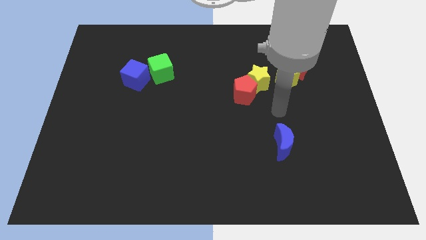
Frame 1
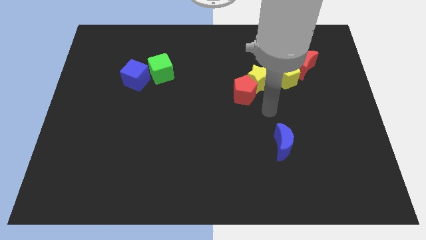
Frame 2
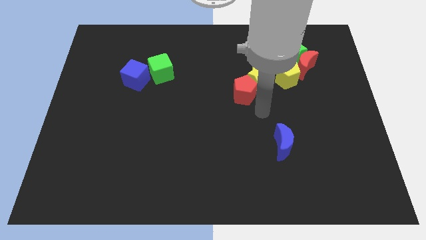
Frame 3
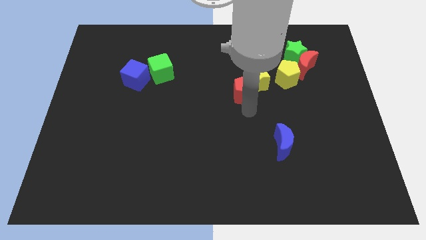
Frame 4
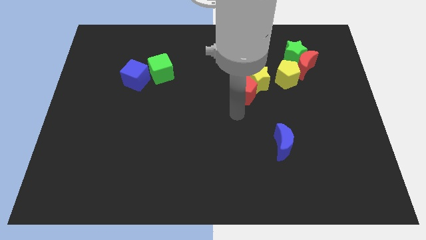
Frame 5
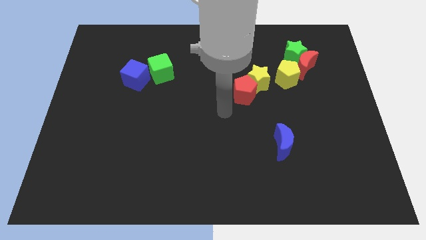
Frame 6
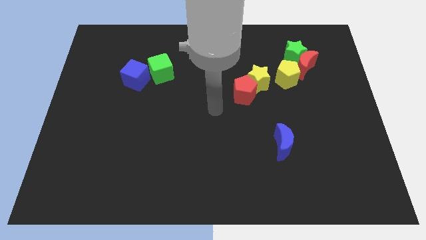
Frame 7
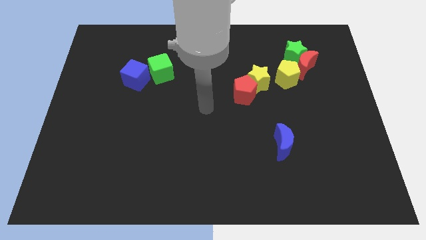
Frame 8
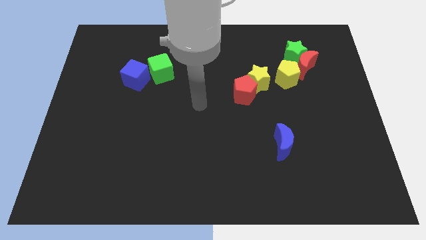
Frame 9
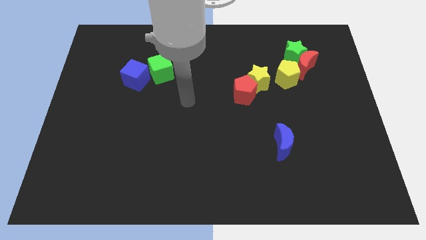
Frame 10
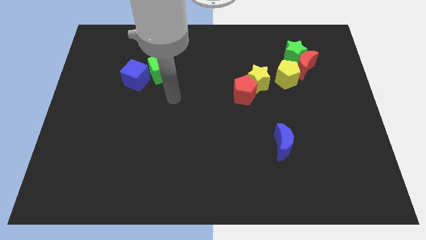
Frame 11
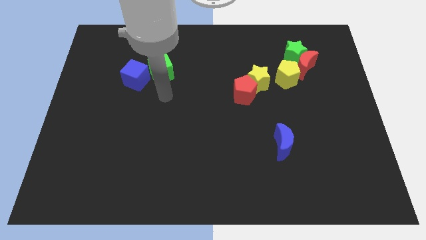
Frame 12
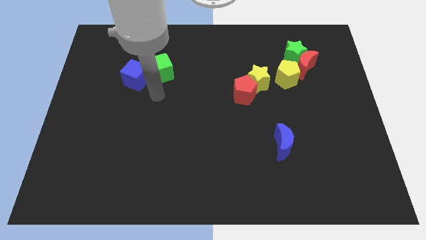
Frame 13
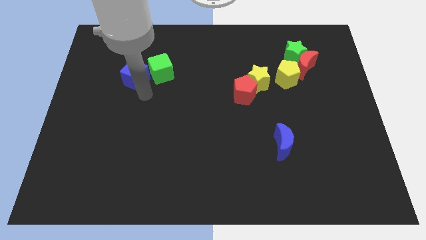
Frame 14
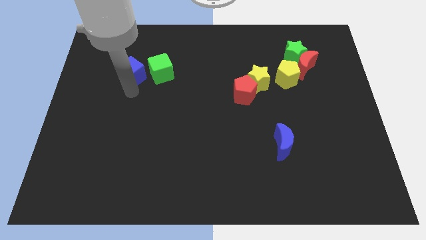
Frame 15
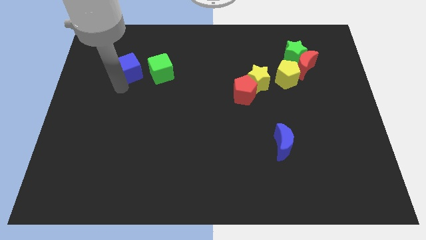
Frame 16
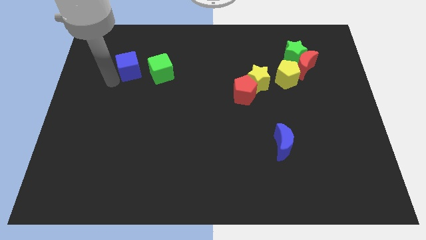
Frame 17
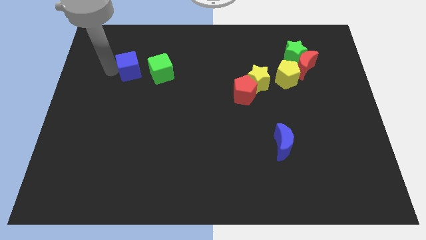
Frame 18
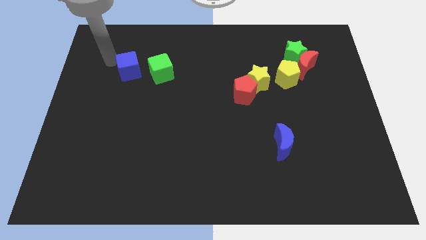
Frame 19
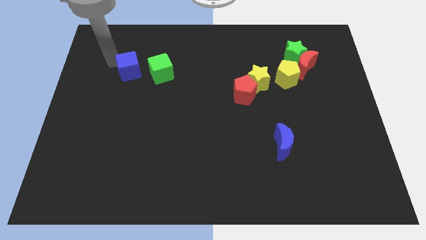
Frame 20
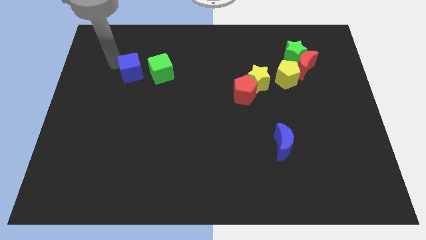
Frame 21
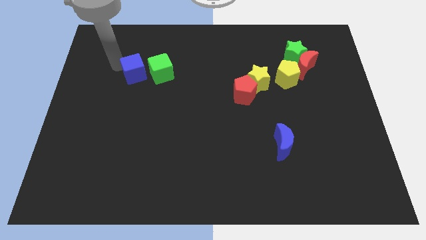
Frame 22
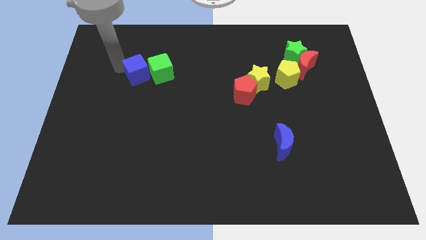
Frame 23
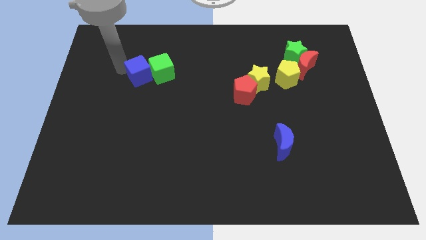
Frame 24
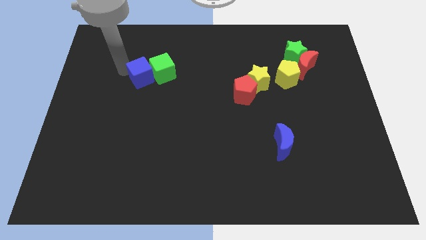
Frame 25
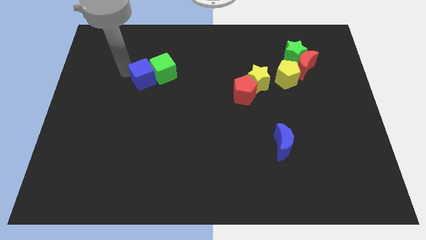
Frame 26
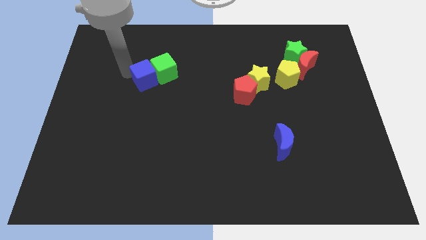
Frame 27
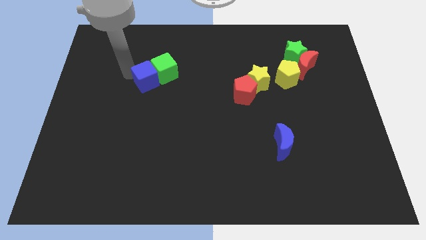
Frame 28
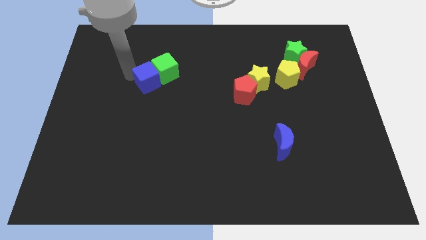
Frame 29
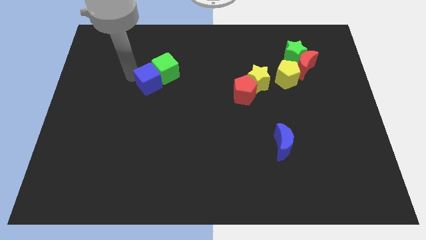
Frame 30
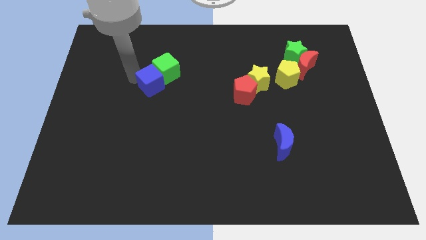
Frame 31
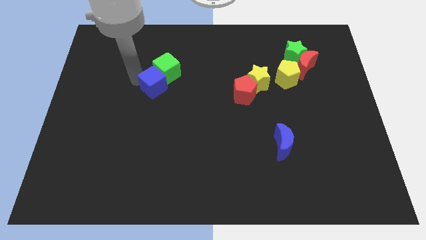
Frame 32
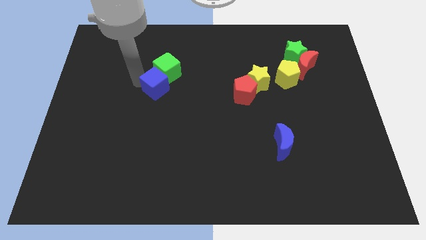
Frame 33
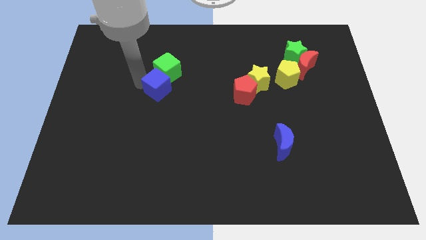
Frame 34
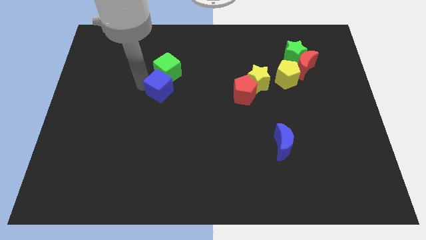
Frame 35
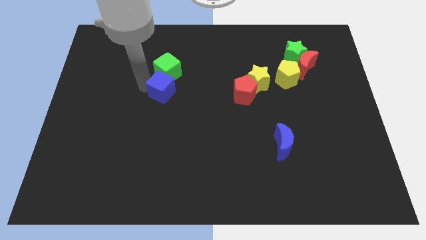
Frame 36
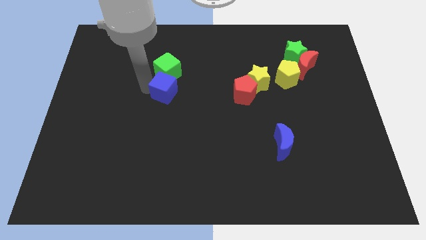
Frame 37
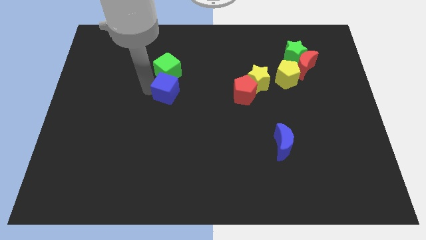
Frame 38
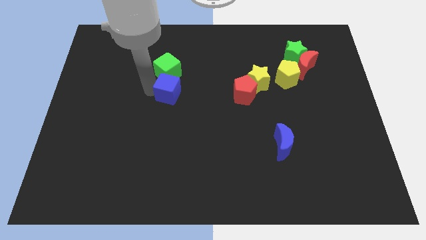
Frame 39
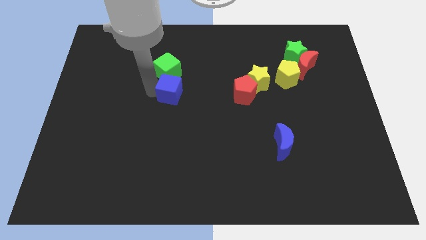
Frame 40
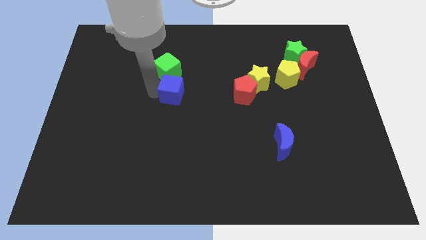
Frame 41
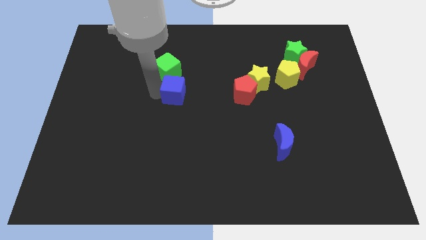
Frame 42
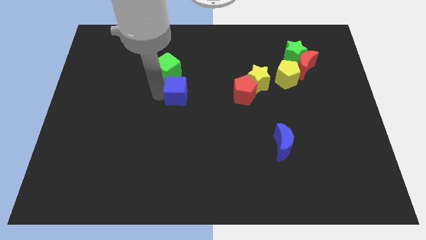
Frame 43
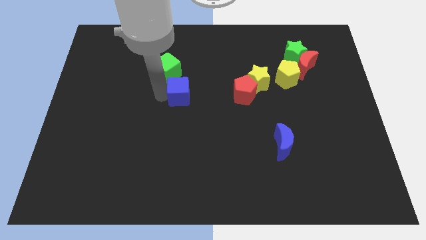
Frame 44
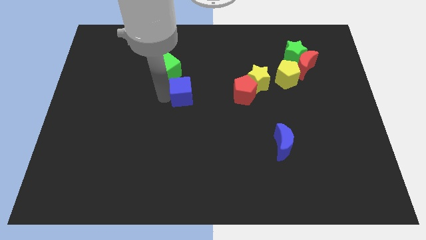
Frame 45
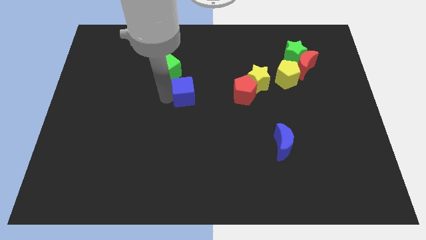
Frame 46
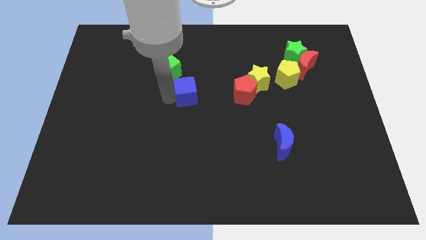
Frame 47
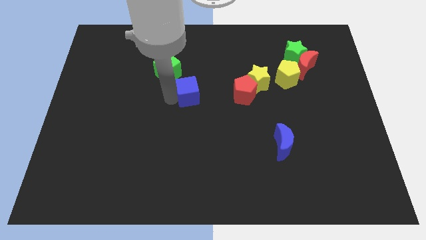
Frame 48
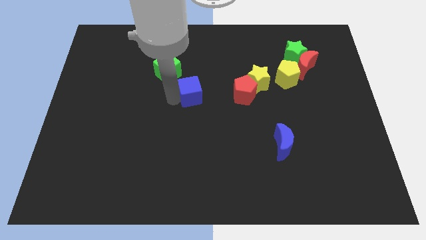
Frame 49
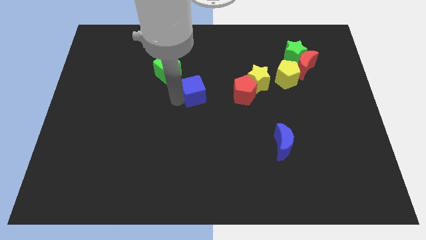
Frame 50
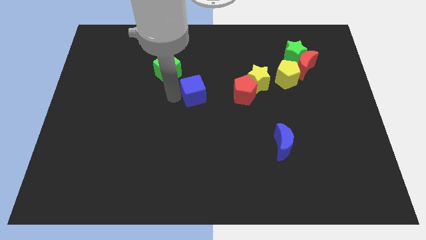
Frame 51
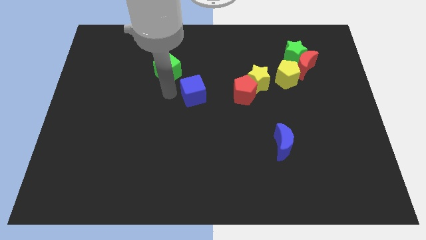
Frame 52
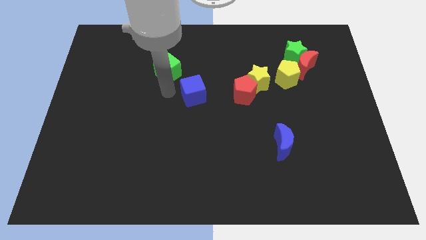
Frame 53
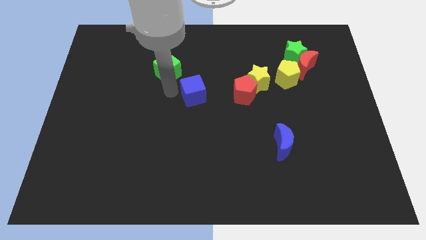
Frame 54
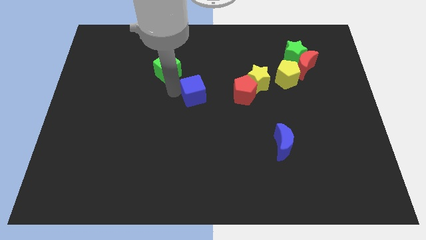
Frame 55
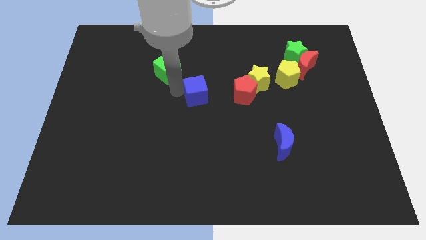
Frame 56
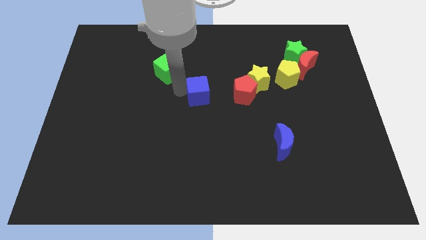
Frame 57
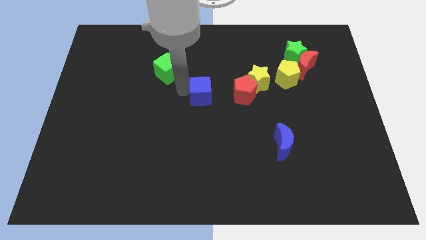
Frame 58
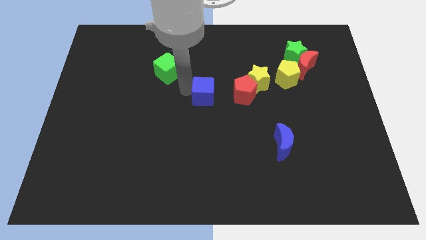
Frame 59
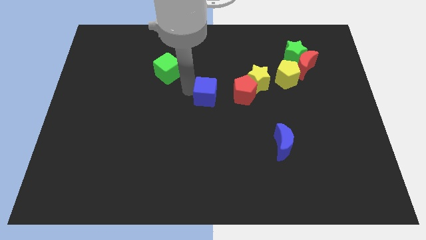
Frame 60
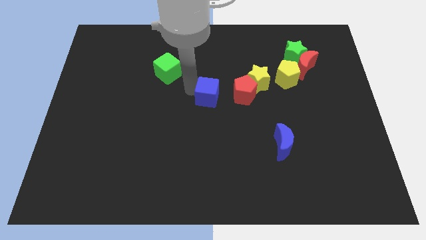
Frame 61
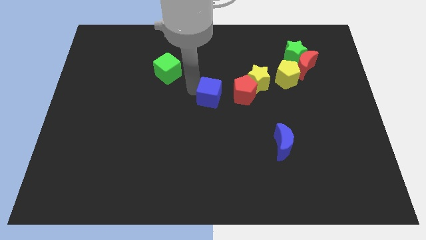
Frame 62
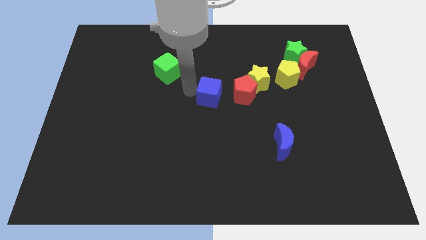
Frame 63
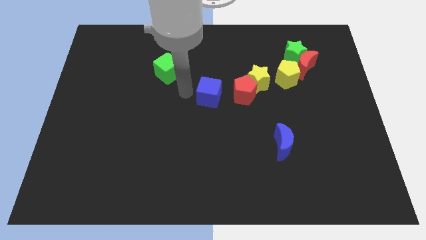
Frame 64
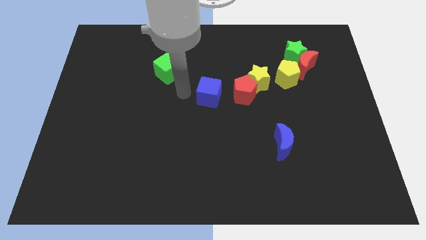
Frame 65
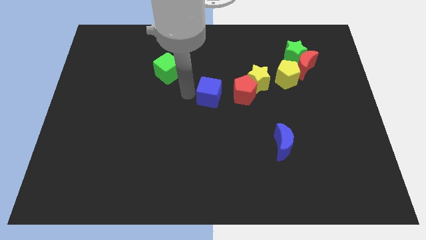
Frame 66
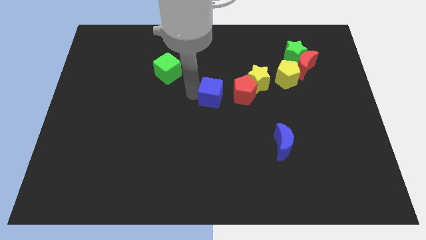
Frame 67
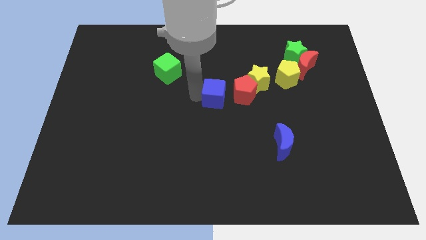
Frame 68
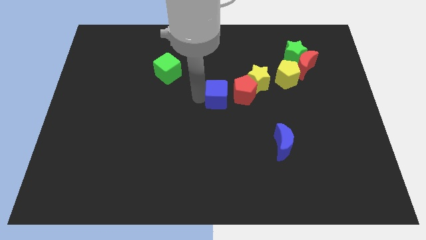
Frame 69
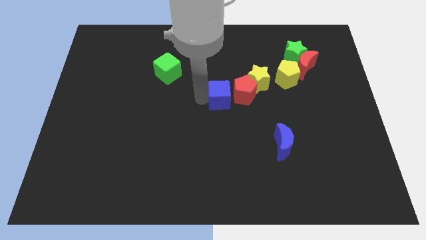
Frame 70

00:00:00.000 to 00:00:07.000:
move the blue cube close to the red pentagon
